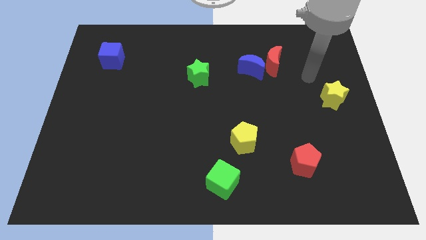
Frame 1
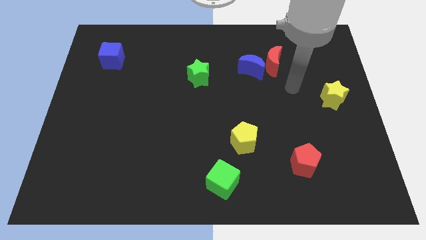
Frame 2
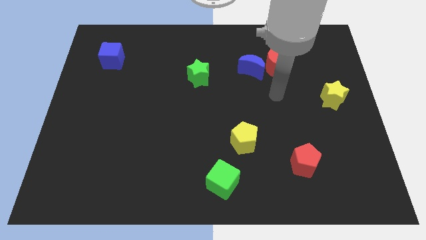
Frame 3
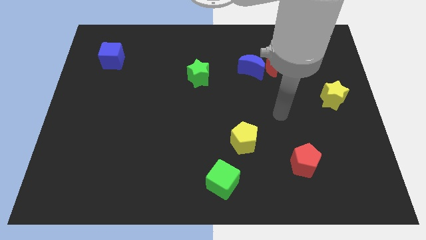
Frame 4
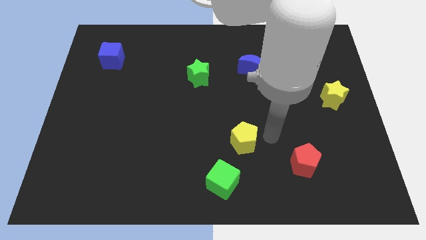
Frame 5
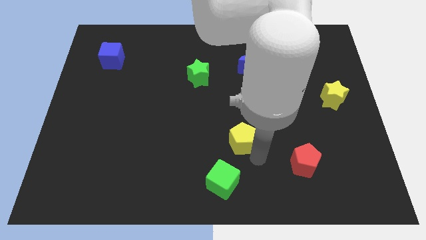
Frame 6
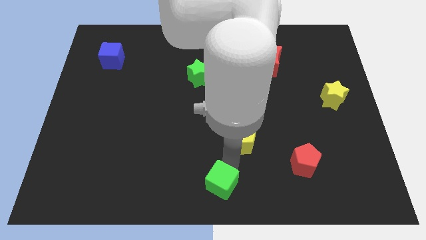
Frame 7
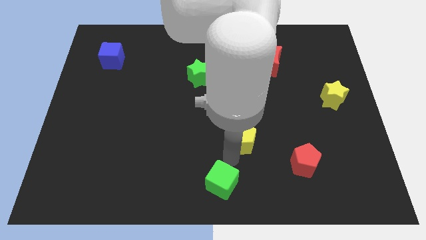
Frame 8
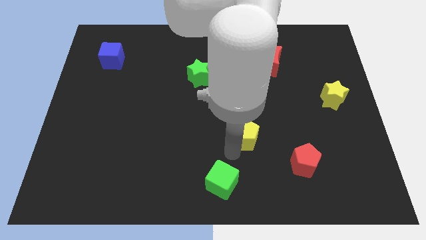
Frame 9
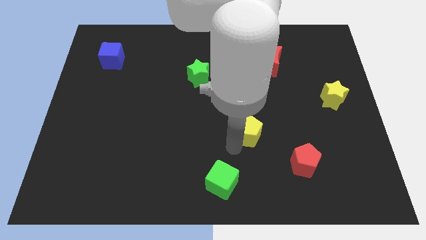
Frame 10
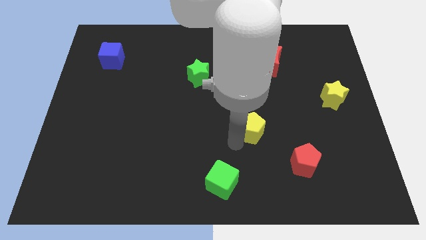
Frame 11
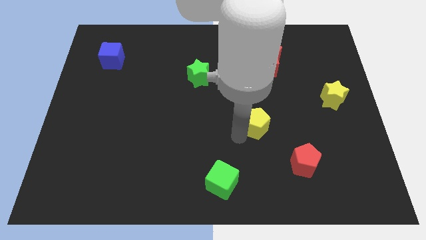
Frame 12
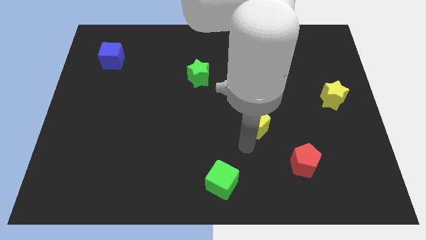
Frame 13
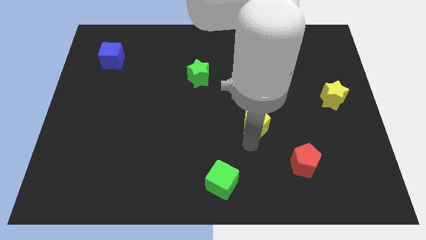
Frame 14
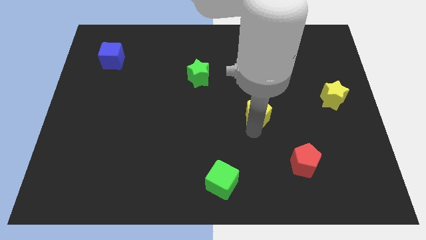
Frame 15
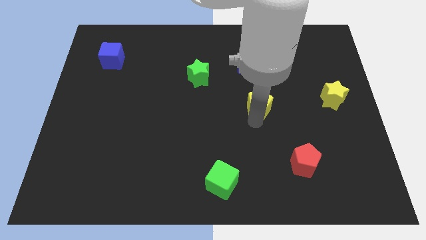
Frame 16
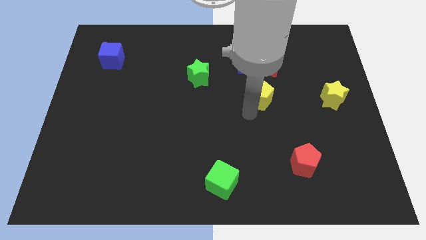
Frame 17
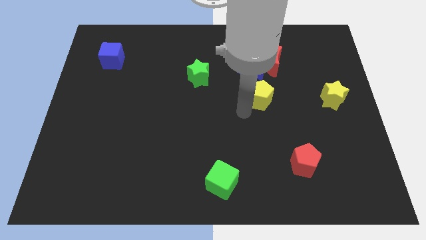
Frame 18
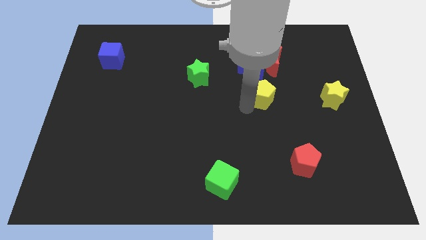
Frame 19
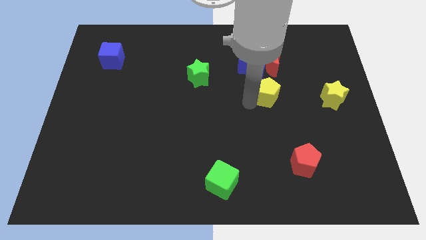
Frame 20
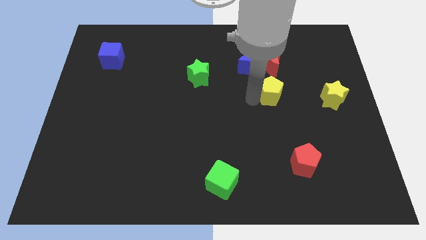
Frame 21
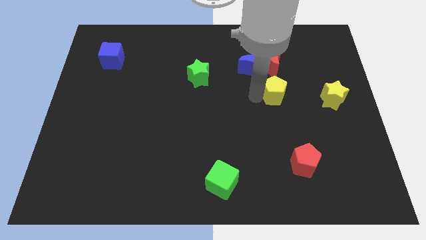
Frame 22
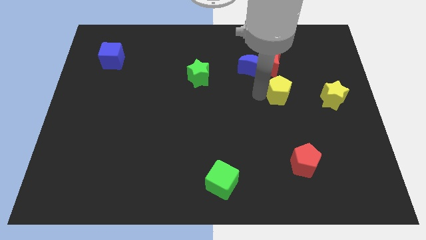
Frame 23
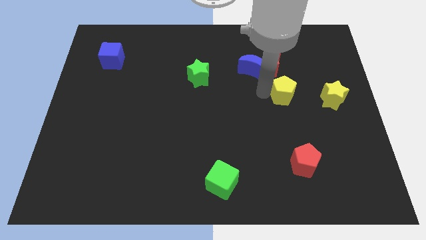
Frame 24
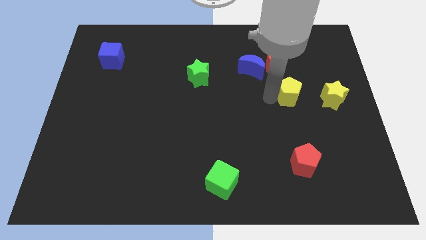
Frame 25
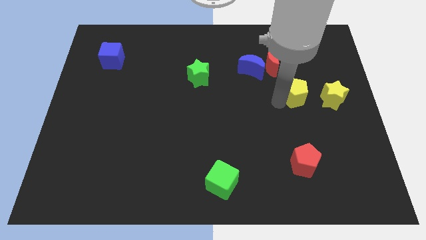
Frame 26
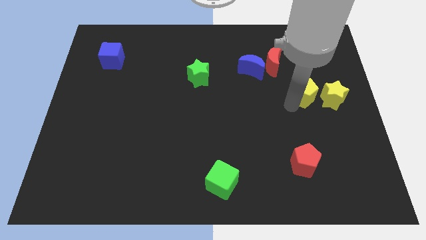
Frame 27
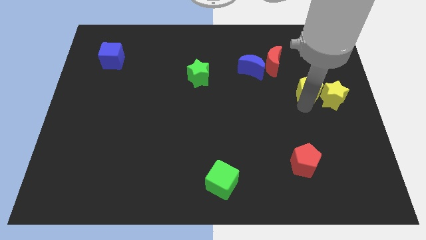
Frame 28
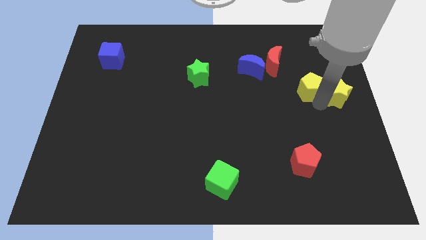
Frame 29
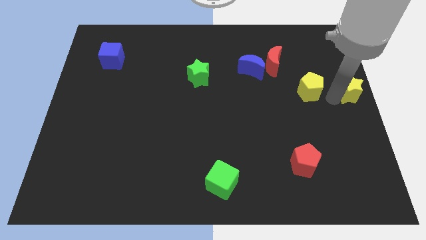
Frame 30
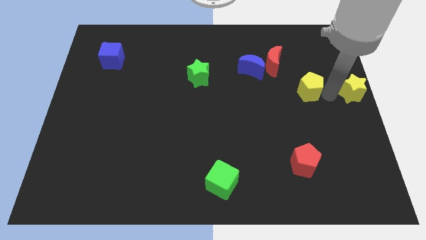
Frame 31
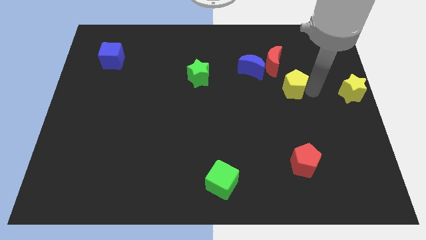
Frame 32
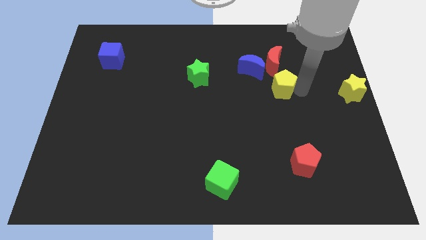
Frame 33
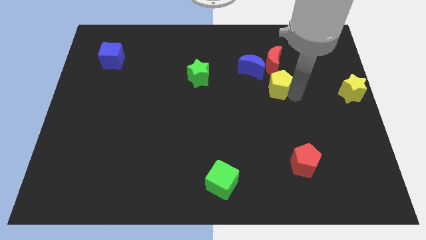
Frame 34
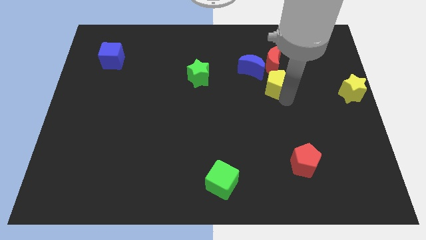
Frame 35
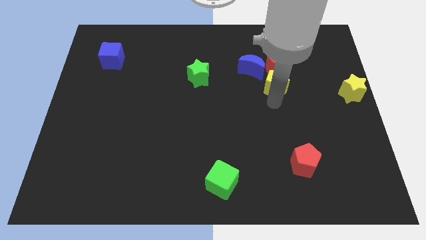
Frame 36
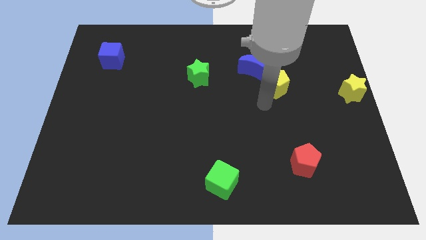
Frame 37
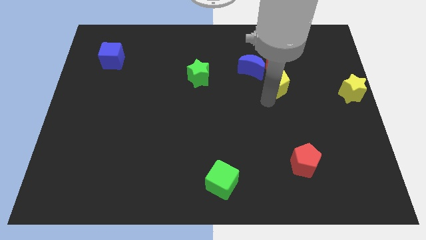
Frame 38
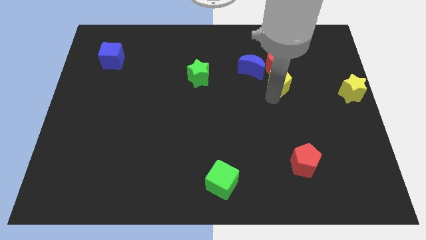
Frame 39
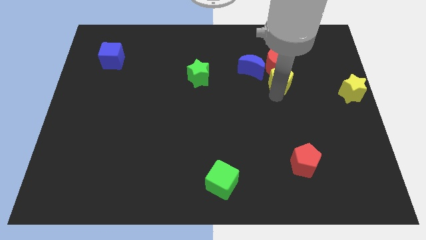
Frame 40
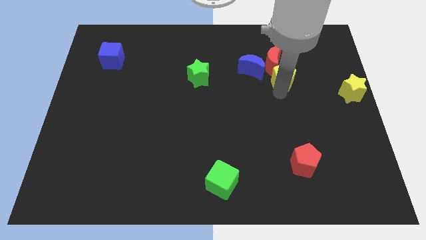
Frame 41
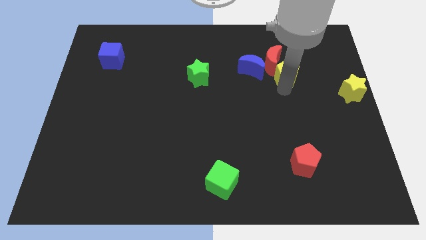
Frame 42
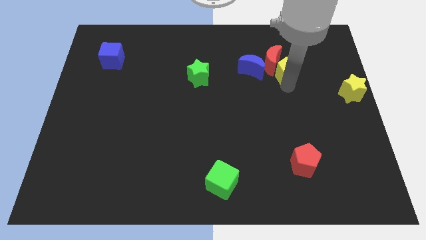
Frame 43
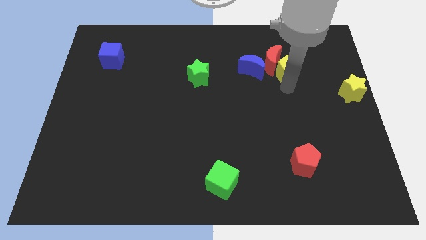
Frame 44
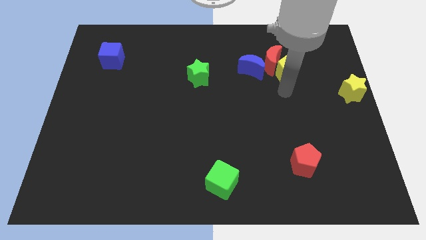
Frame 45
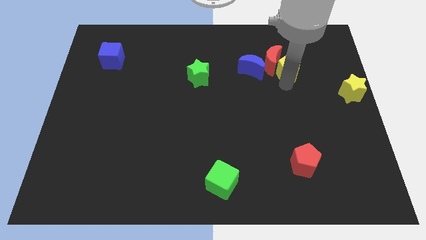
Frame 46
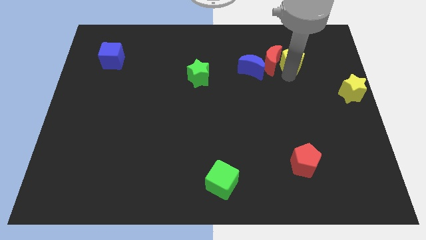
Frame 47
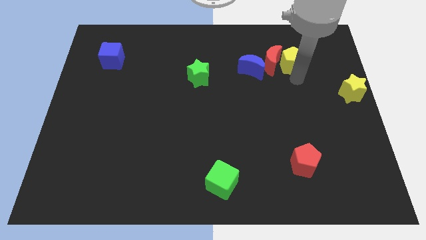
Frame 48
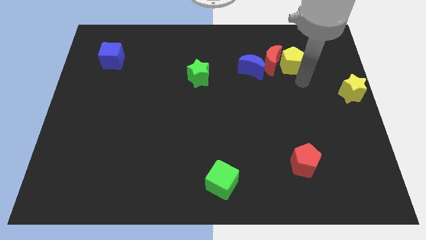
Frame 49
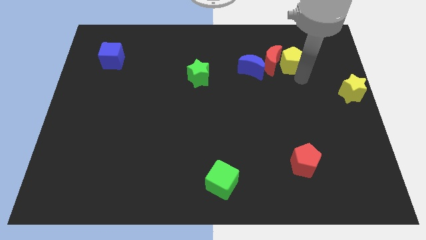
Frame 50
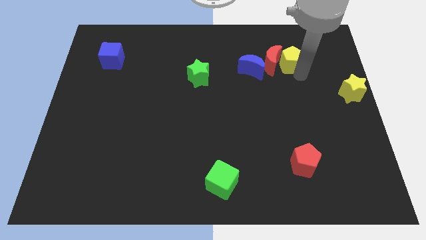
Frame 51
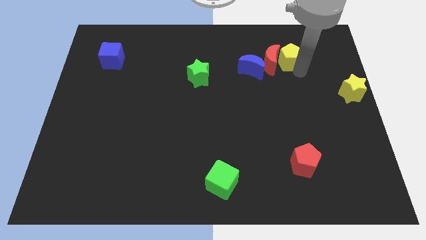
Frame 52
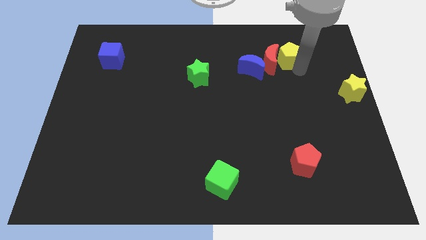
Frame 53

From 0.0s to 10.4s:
put the yellow pentagon to the top right of the blue moon

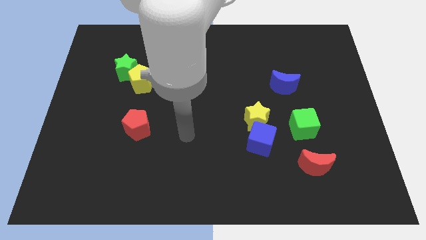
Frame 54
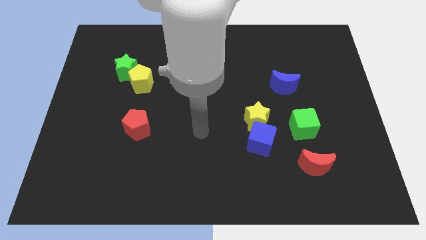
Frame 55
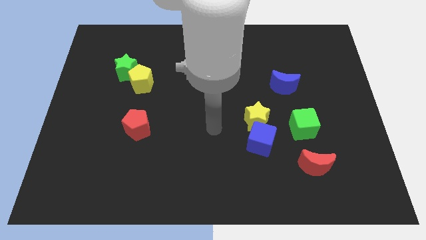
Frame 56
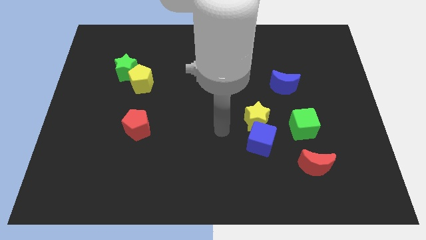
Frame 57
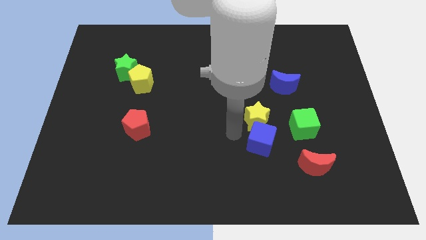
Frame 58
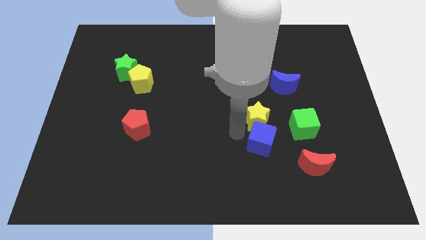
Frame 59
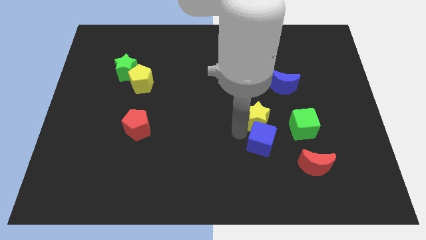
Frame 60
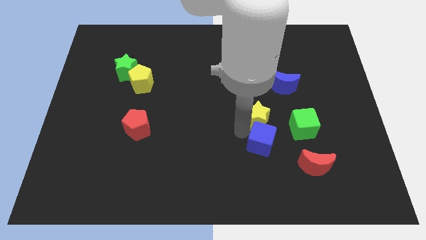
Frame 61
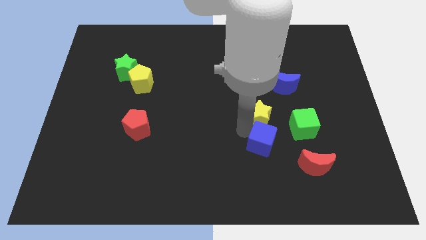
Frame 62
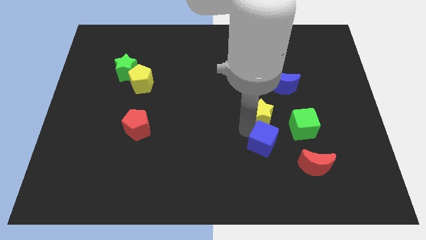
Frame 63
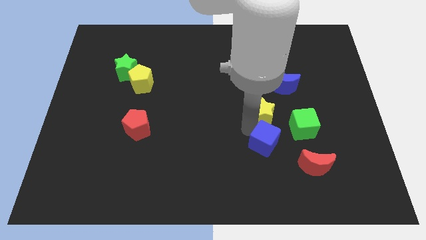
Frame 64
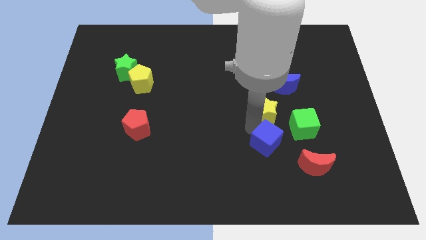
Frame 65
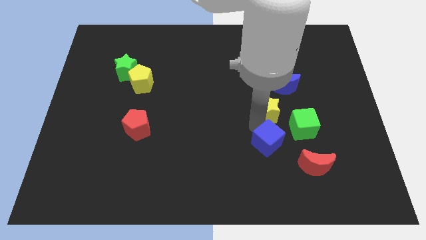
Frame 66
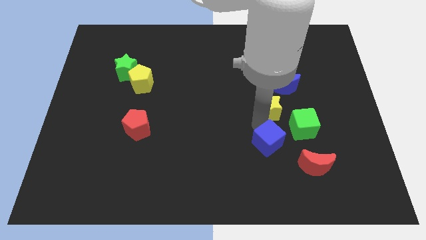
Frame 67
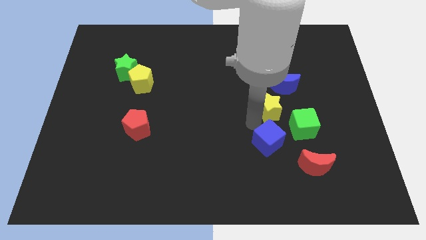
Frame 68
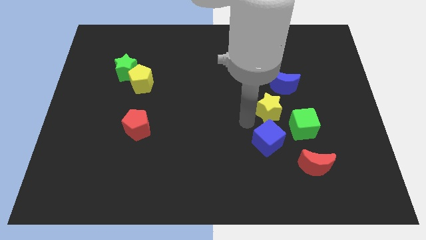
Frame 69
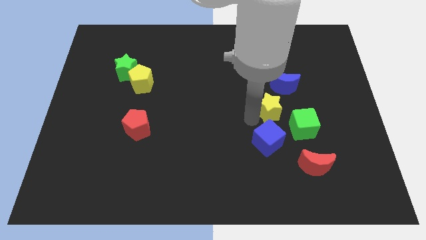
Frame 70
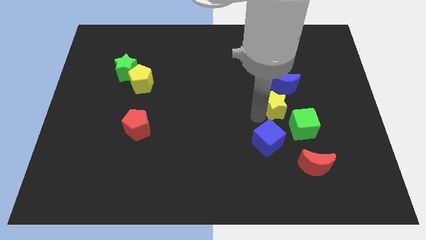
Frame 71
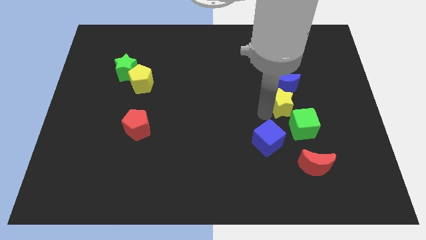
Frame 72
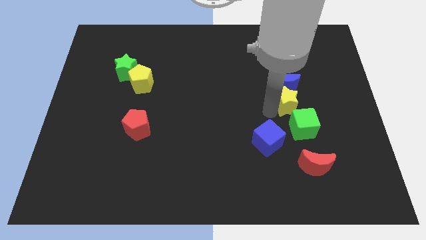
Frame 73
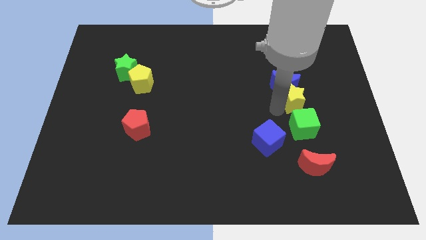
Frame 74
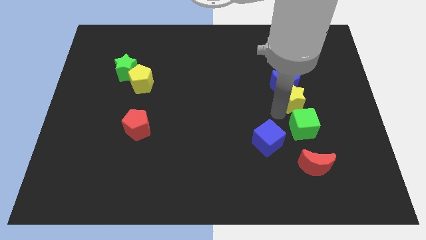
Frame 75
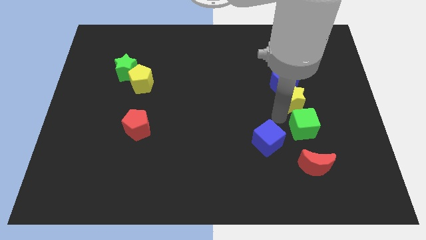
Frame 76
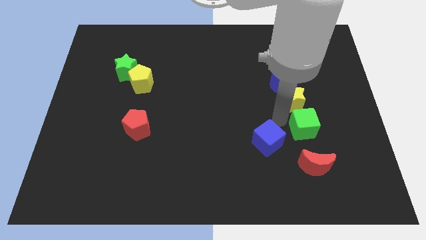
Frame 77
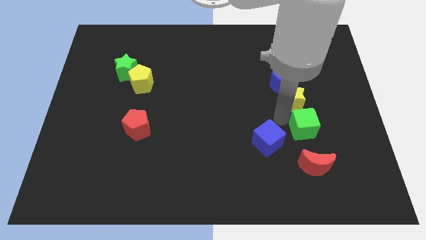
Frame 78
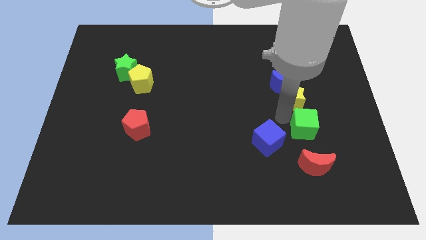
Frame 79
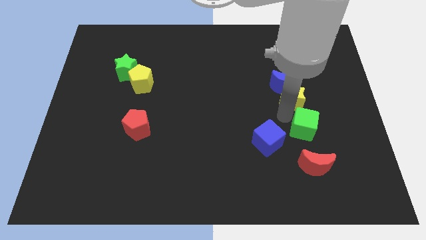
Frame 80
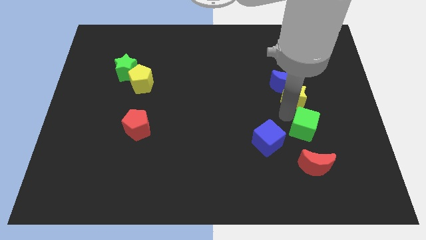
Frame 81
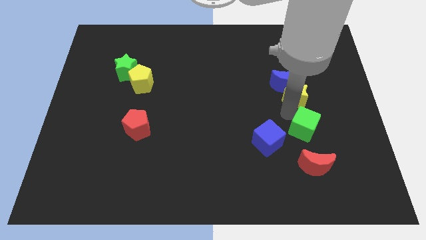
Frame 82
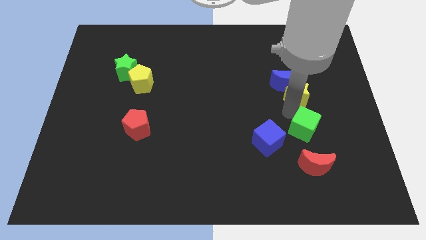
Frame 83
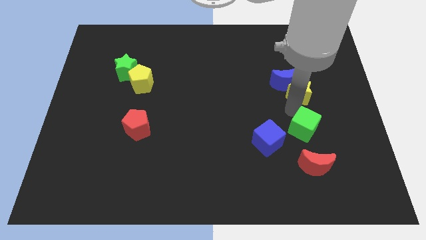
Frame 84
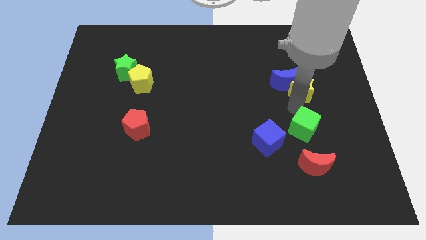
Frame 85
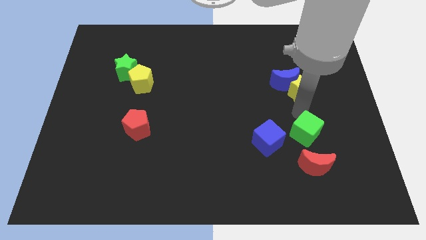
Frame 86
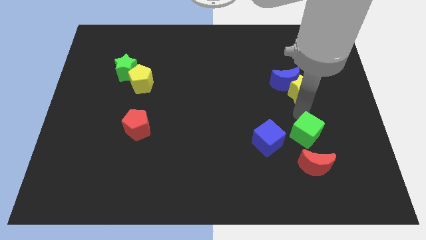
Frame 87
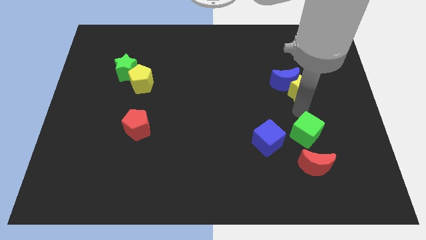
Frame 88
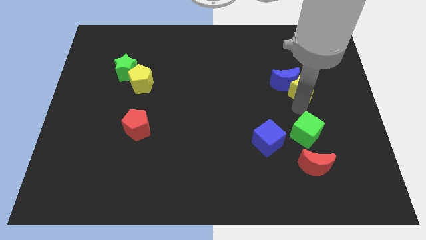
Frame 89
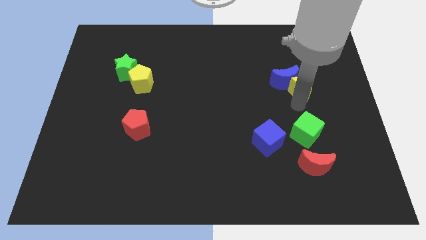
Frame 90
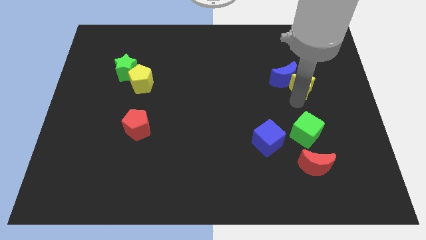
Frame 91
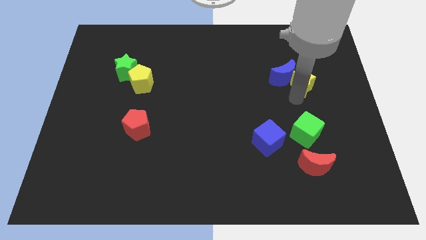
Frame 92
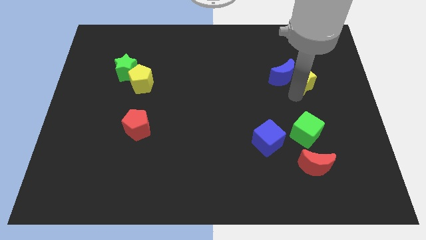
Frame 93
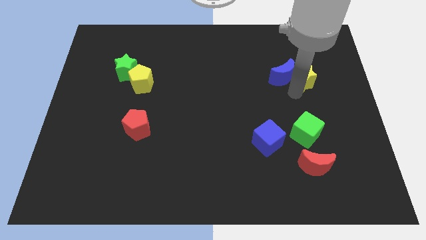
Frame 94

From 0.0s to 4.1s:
put the yellow star to the top right of the blue moon
